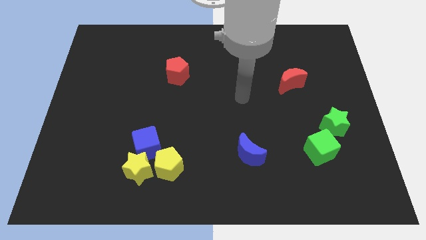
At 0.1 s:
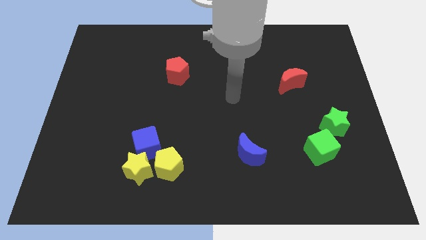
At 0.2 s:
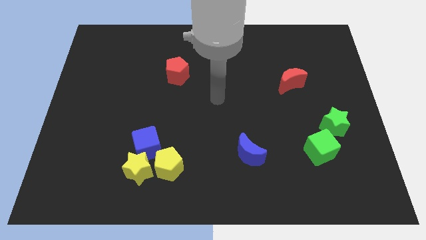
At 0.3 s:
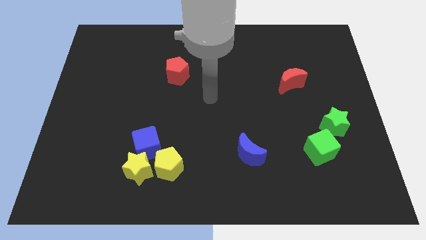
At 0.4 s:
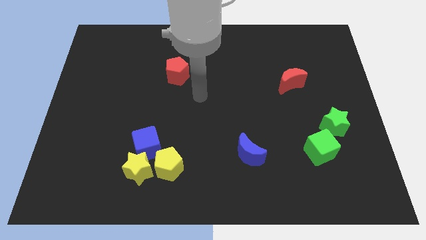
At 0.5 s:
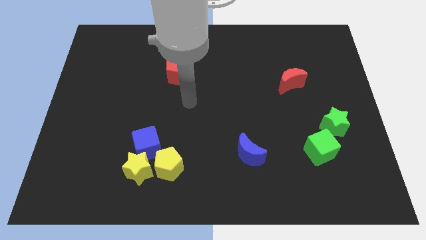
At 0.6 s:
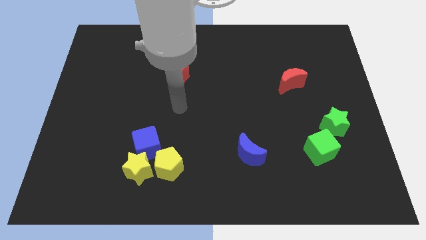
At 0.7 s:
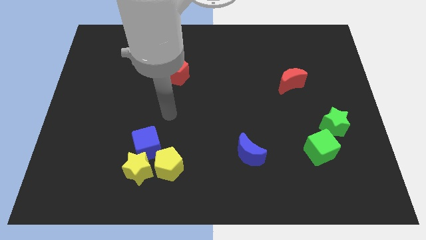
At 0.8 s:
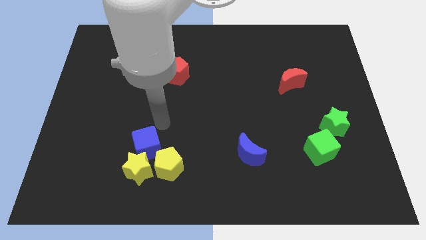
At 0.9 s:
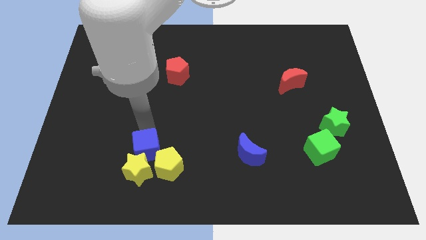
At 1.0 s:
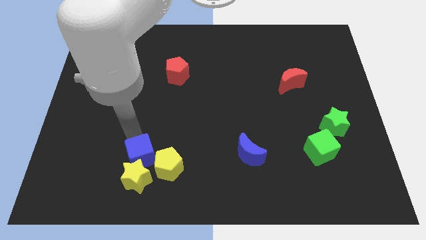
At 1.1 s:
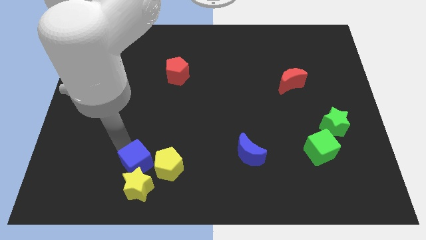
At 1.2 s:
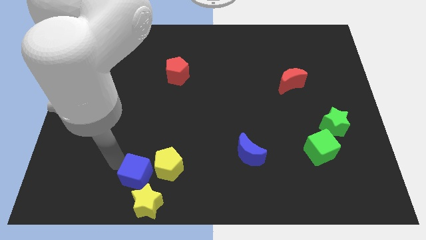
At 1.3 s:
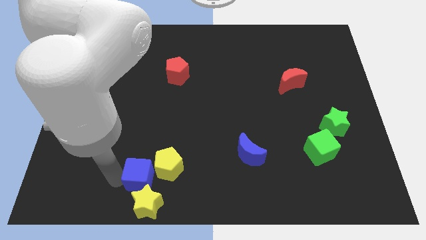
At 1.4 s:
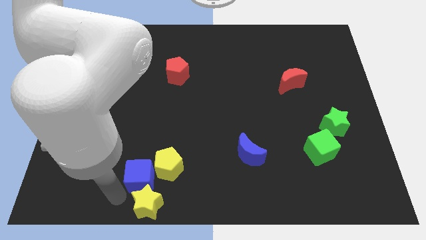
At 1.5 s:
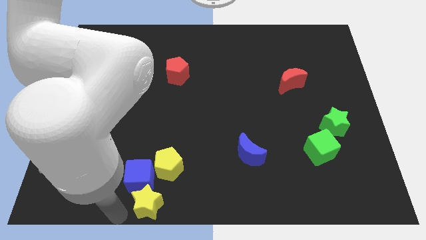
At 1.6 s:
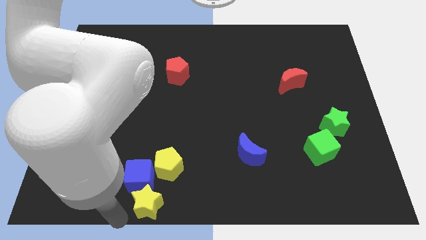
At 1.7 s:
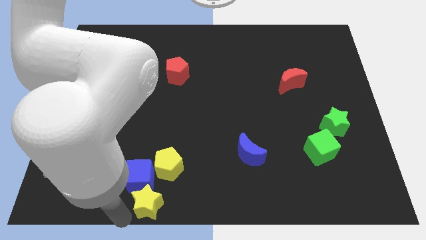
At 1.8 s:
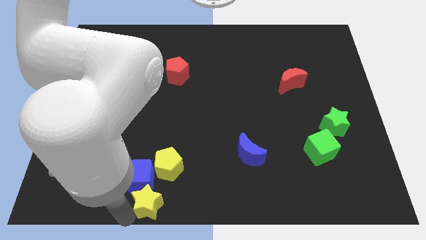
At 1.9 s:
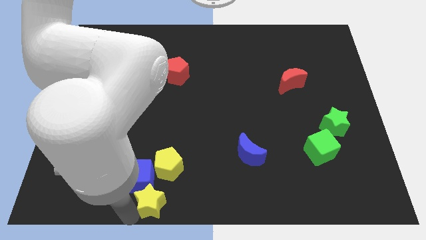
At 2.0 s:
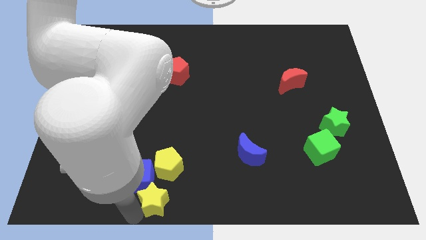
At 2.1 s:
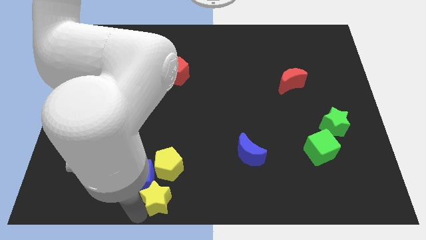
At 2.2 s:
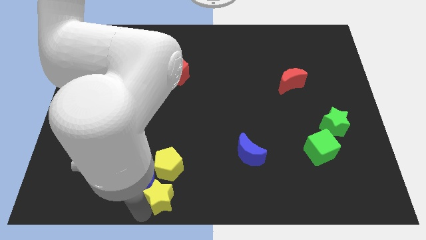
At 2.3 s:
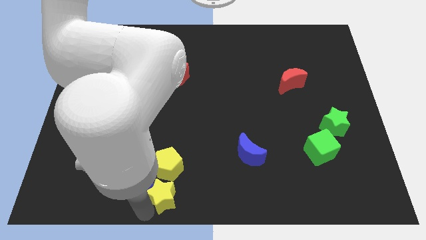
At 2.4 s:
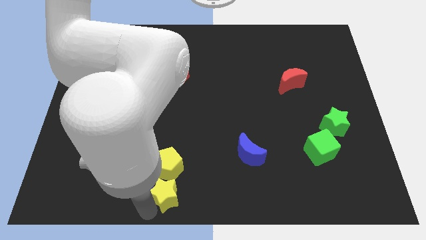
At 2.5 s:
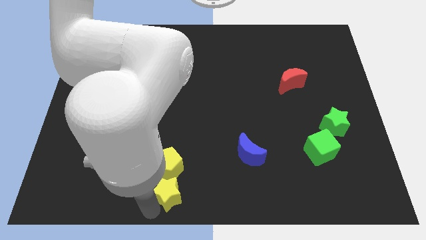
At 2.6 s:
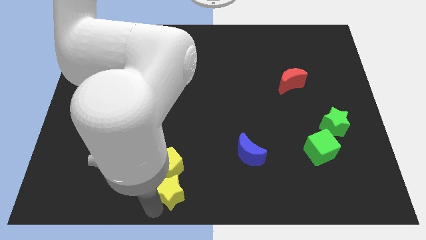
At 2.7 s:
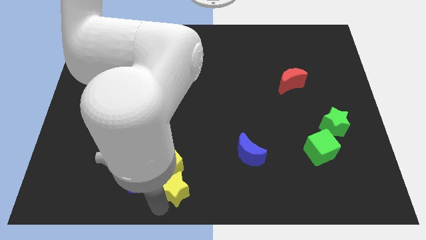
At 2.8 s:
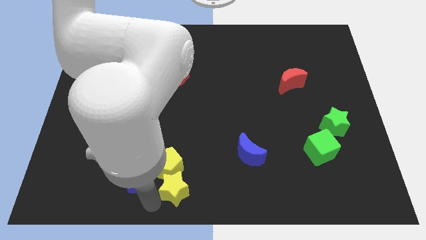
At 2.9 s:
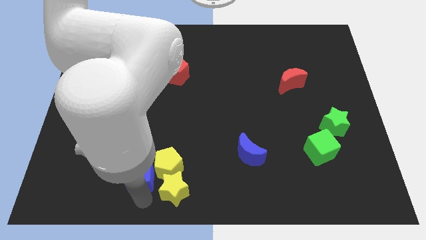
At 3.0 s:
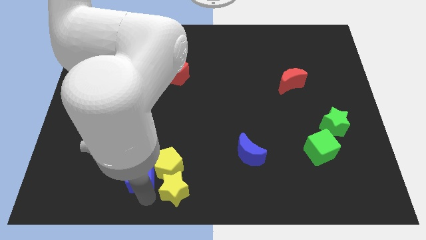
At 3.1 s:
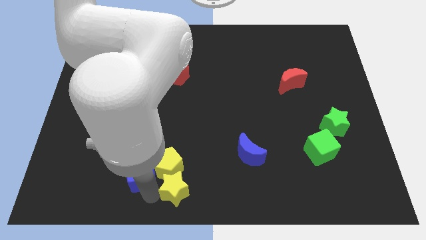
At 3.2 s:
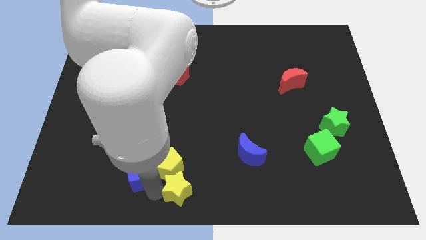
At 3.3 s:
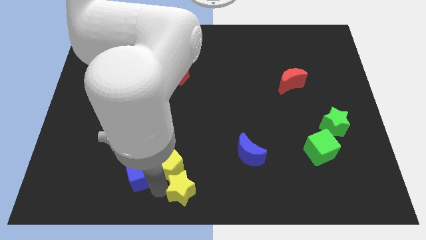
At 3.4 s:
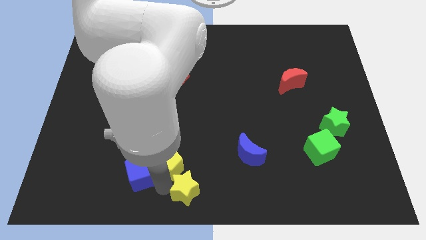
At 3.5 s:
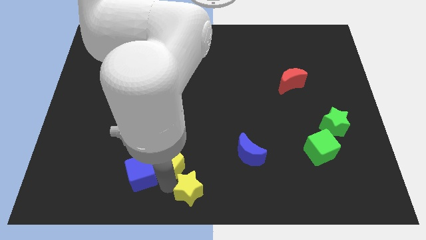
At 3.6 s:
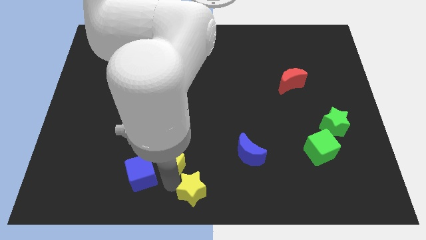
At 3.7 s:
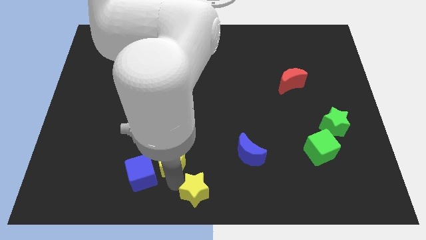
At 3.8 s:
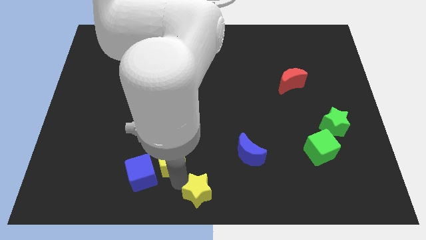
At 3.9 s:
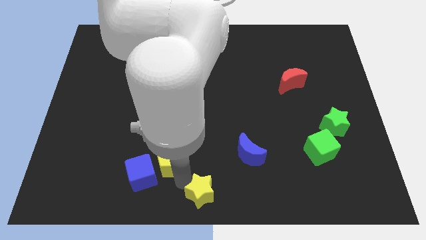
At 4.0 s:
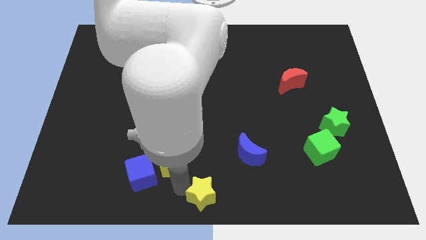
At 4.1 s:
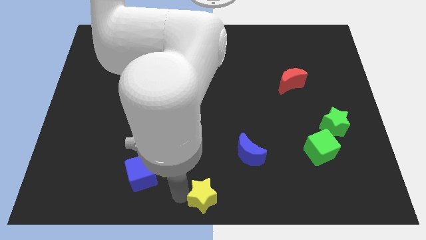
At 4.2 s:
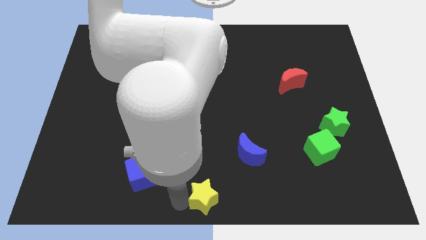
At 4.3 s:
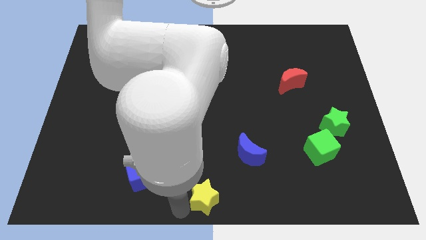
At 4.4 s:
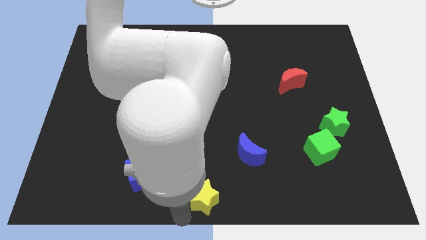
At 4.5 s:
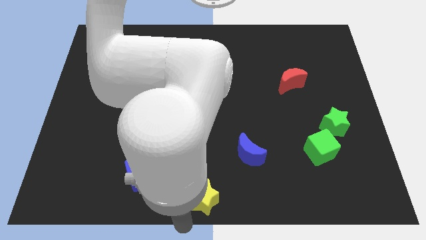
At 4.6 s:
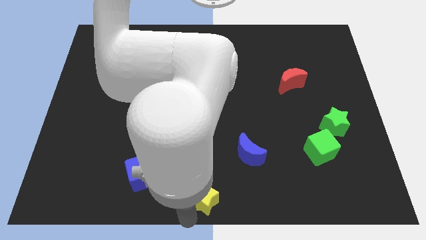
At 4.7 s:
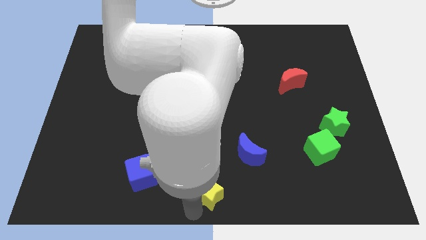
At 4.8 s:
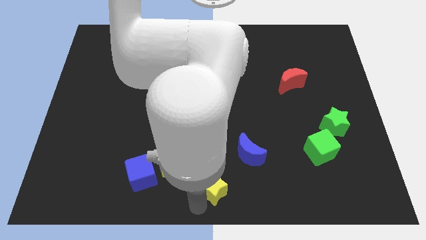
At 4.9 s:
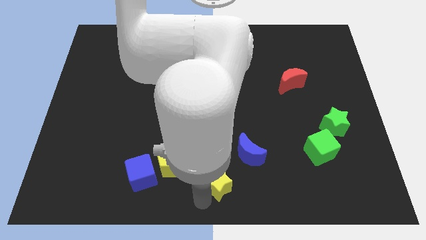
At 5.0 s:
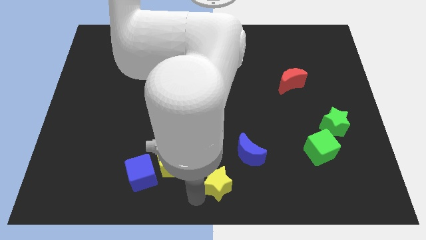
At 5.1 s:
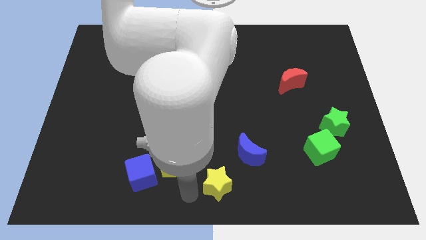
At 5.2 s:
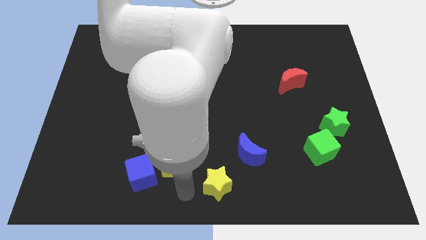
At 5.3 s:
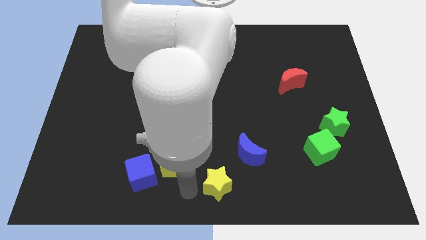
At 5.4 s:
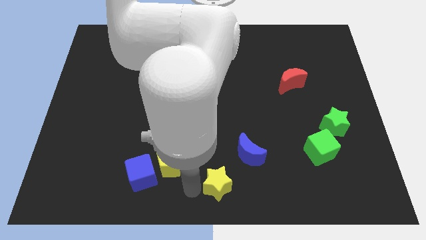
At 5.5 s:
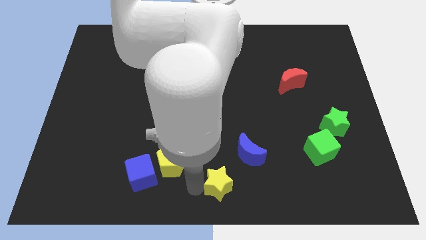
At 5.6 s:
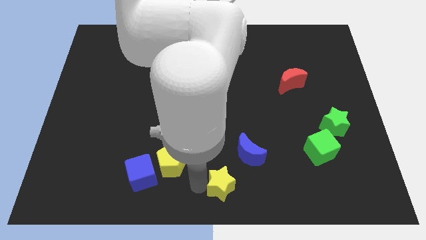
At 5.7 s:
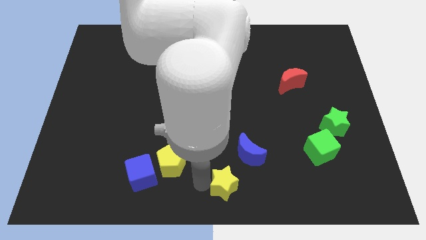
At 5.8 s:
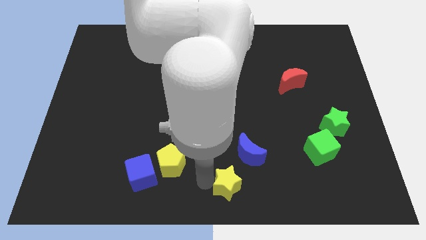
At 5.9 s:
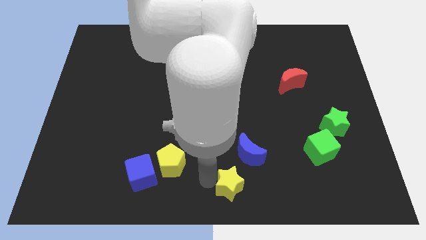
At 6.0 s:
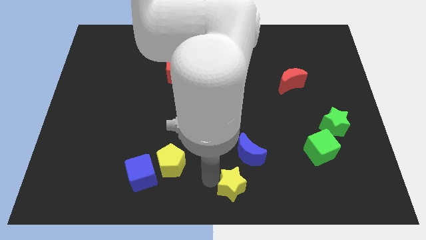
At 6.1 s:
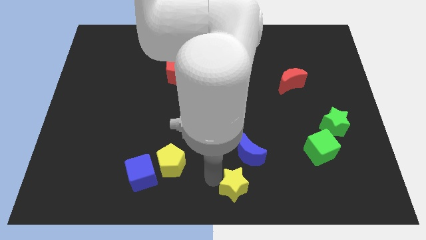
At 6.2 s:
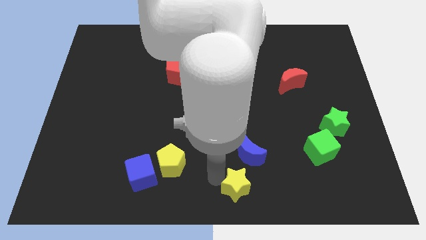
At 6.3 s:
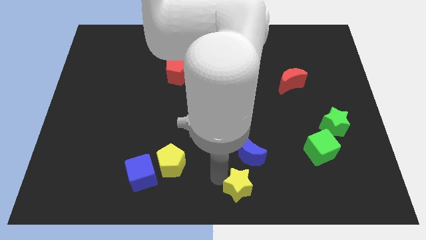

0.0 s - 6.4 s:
push the yellow star to the right

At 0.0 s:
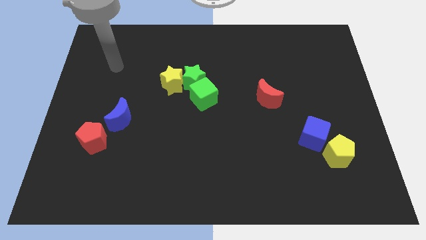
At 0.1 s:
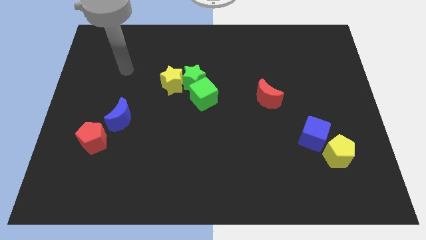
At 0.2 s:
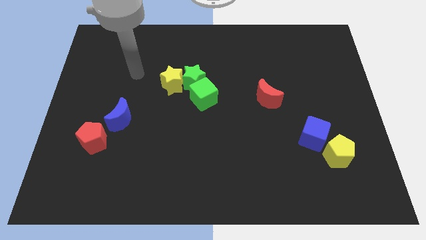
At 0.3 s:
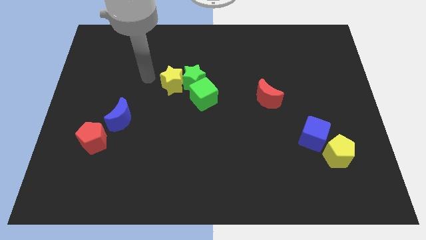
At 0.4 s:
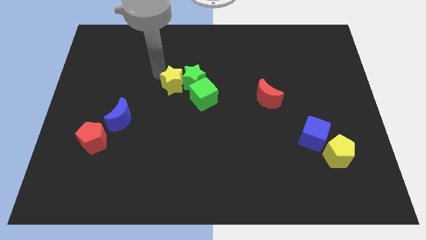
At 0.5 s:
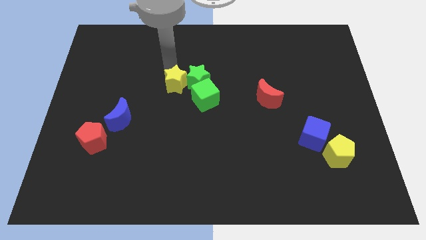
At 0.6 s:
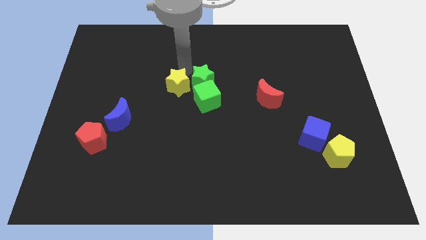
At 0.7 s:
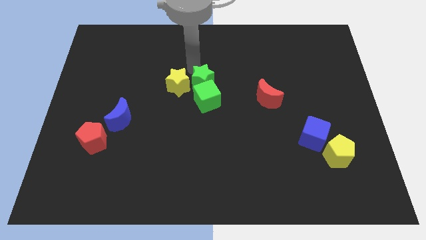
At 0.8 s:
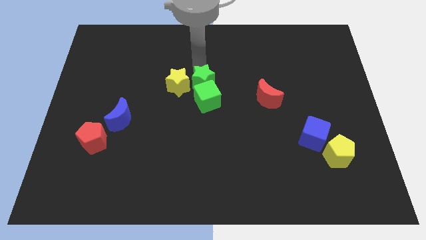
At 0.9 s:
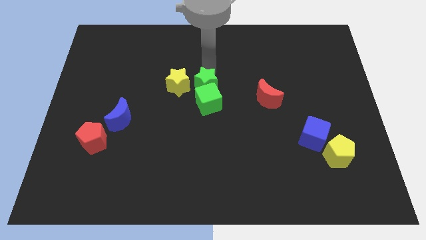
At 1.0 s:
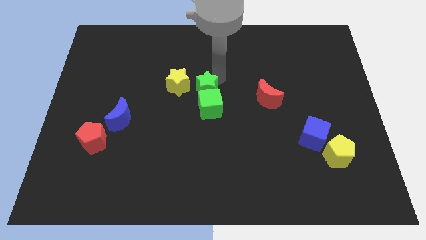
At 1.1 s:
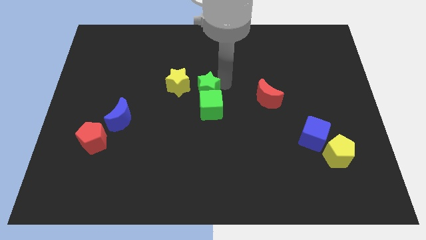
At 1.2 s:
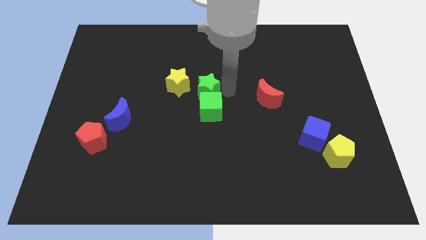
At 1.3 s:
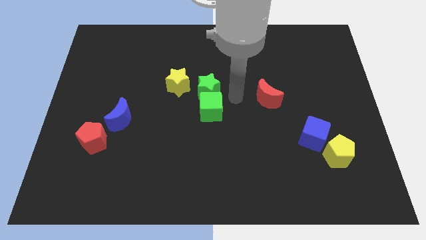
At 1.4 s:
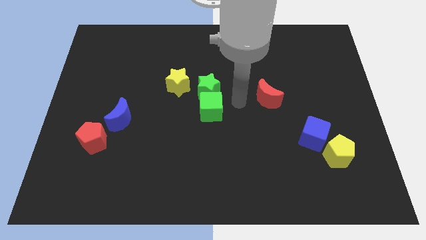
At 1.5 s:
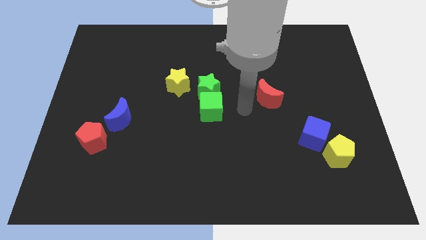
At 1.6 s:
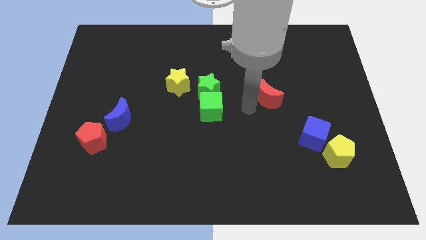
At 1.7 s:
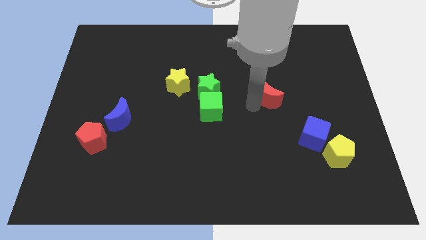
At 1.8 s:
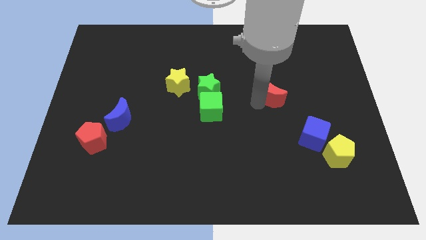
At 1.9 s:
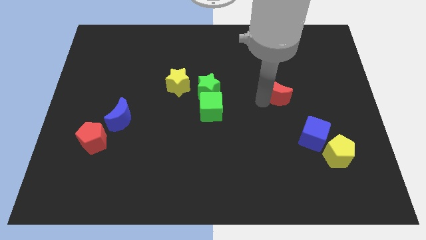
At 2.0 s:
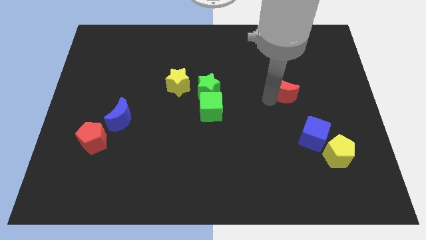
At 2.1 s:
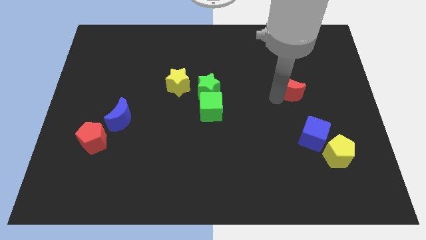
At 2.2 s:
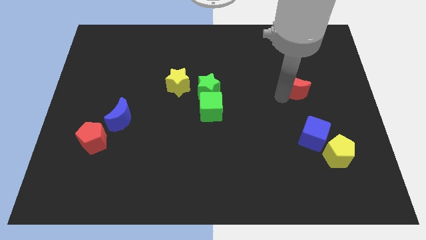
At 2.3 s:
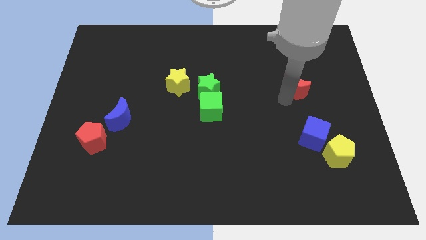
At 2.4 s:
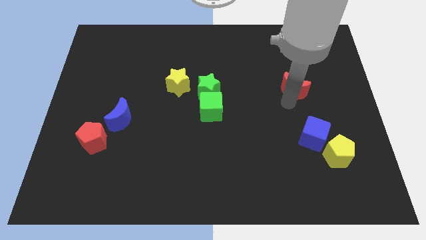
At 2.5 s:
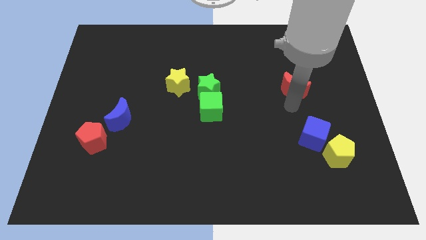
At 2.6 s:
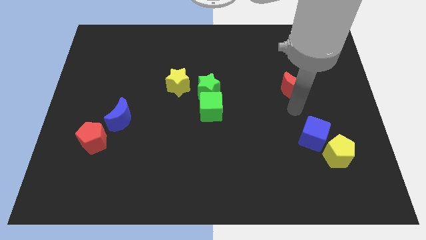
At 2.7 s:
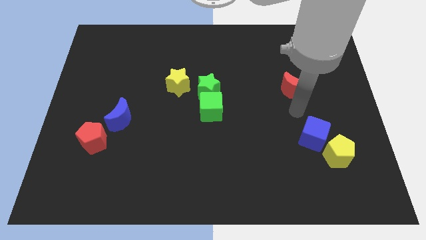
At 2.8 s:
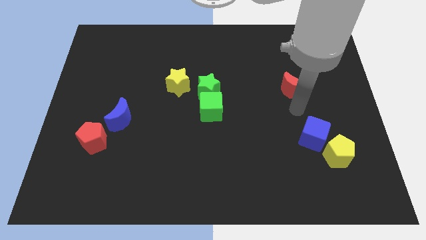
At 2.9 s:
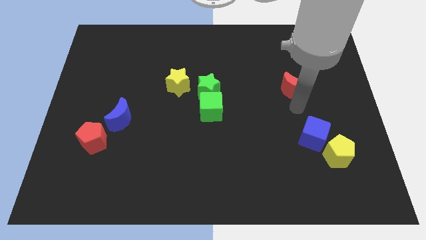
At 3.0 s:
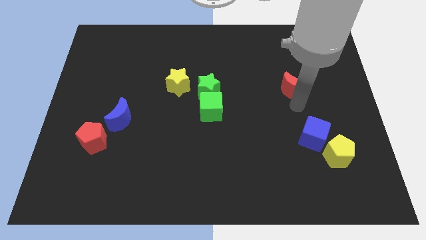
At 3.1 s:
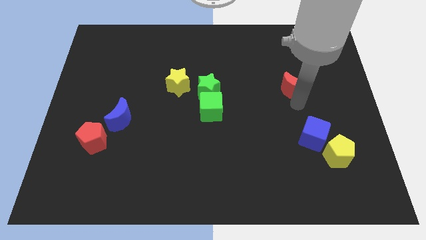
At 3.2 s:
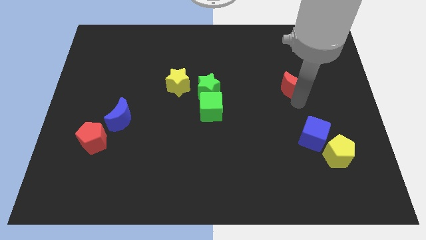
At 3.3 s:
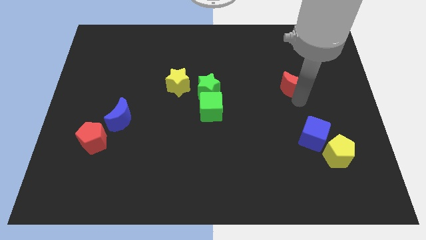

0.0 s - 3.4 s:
slide the red moon diagonally upwards and right a little bit
